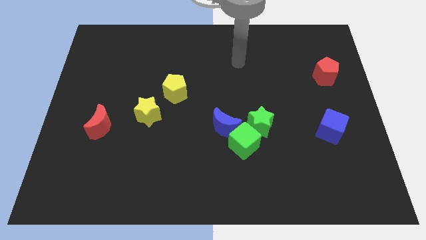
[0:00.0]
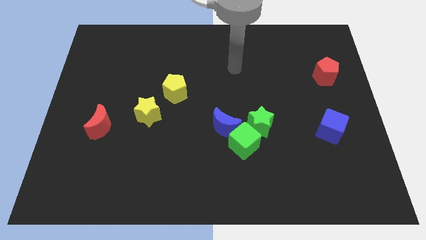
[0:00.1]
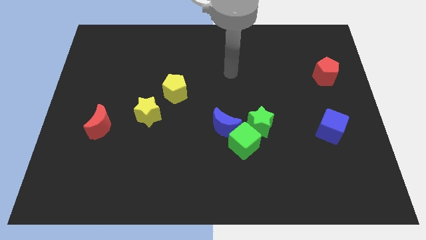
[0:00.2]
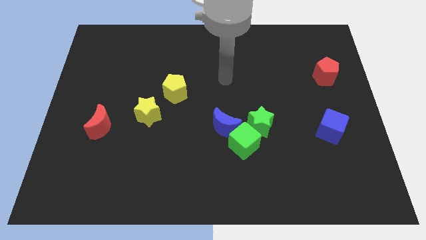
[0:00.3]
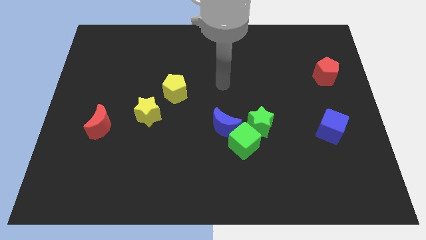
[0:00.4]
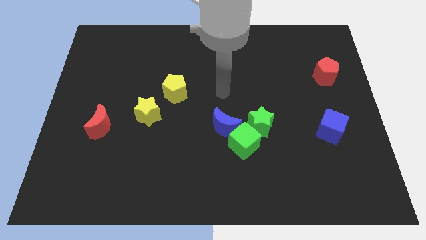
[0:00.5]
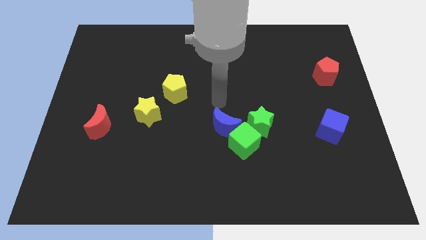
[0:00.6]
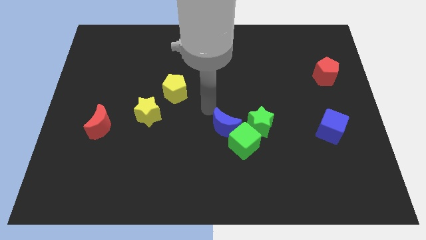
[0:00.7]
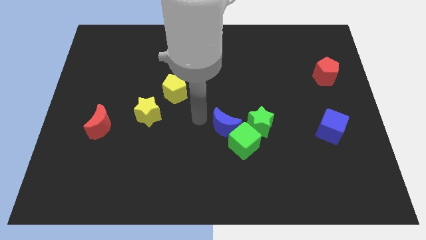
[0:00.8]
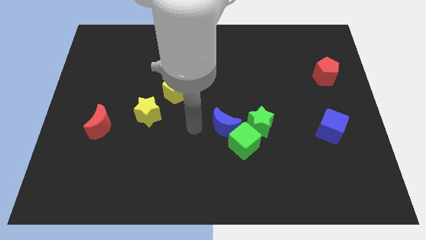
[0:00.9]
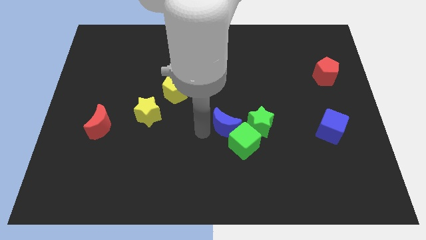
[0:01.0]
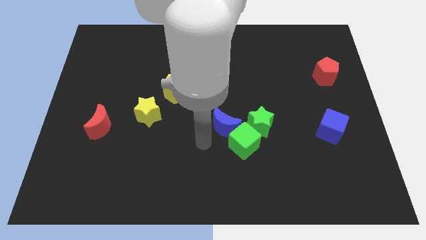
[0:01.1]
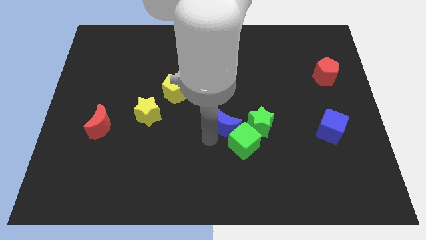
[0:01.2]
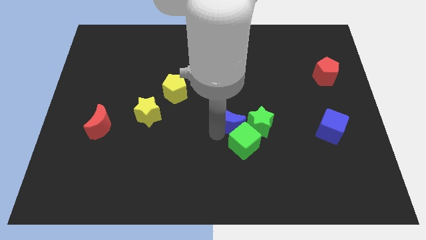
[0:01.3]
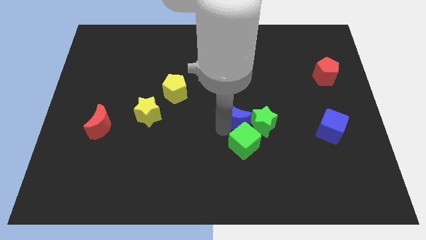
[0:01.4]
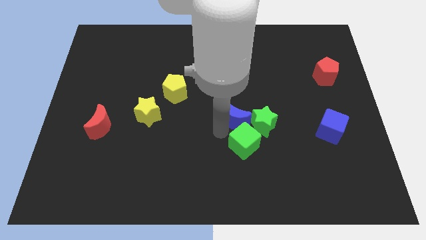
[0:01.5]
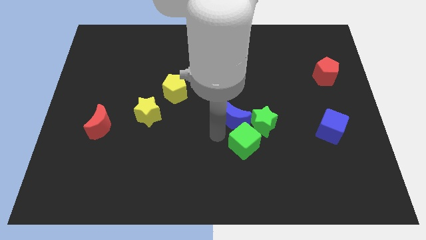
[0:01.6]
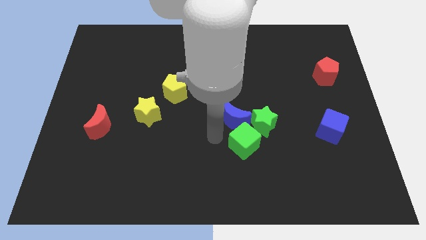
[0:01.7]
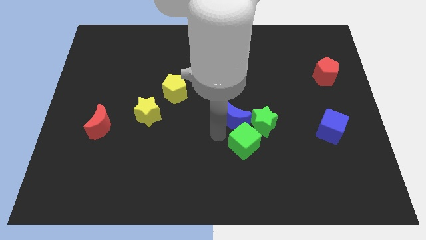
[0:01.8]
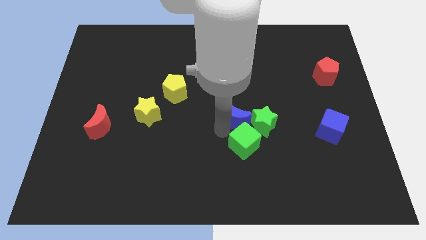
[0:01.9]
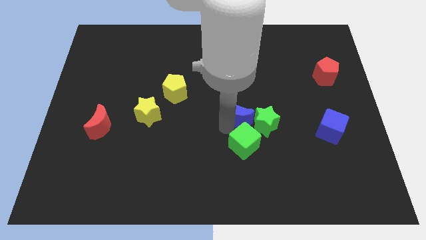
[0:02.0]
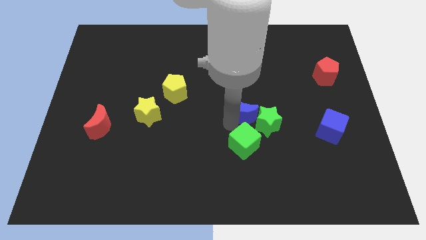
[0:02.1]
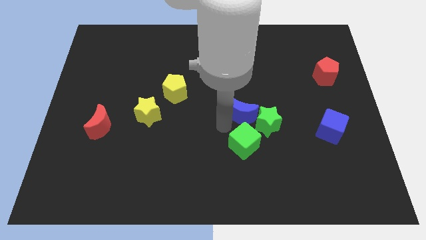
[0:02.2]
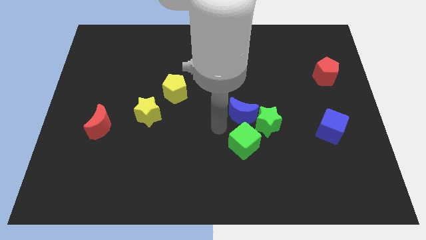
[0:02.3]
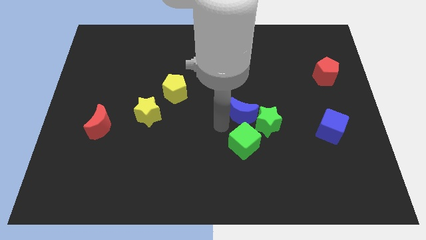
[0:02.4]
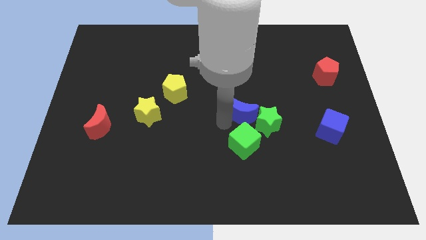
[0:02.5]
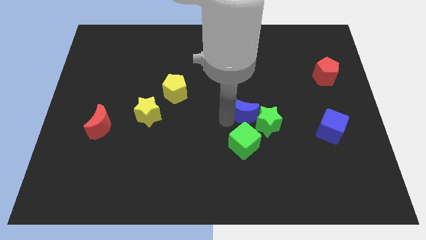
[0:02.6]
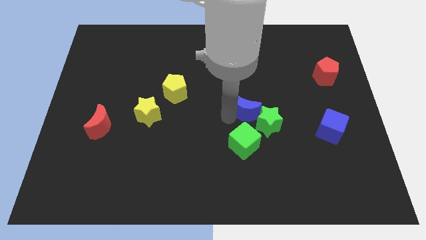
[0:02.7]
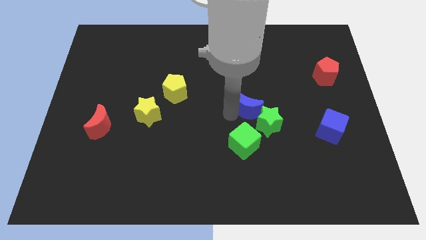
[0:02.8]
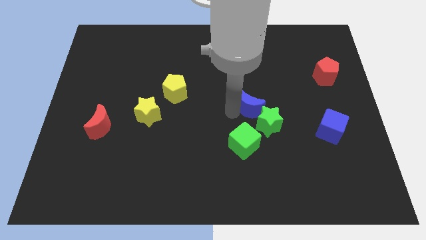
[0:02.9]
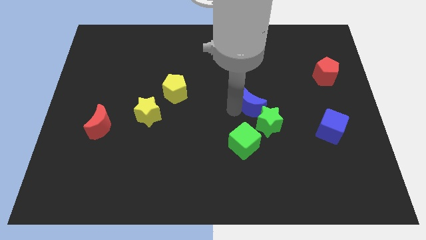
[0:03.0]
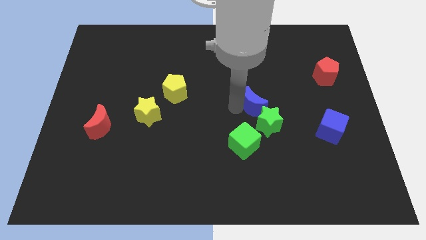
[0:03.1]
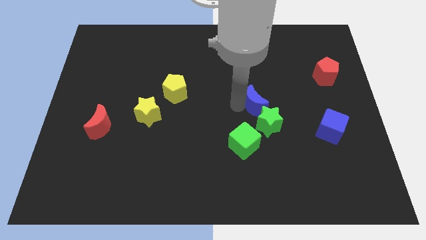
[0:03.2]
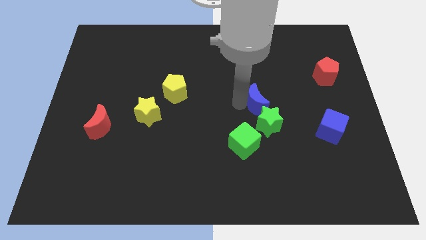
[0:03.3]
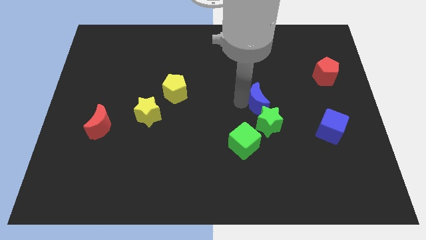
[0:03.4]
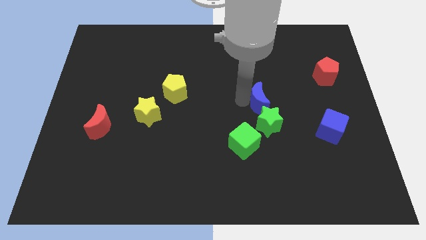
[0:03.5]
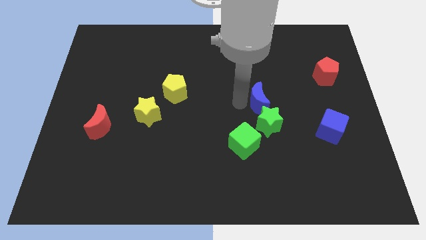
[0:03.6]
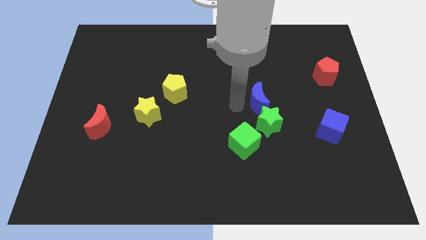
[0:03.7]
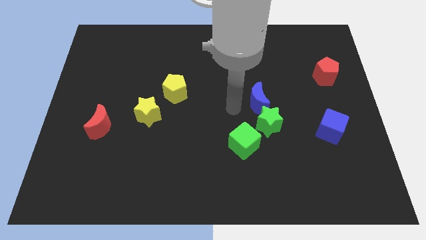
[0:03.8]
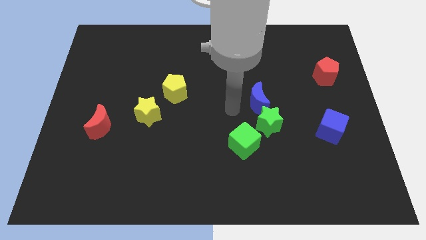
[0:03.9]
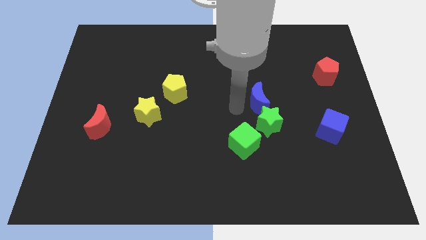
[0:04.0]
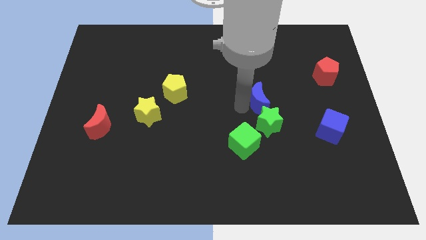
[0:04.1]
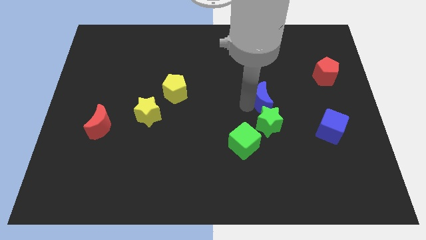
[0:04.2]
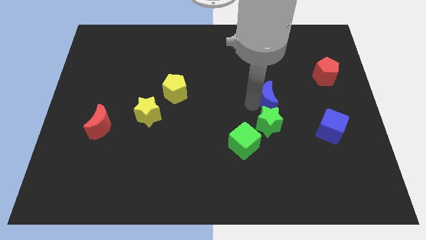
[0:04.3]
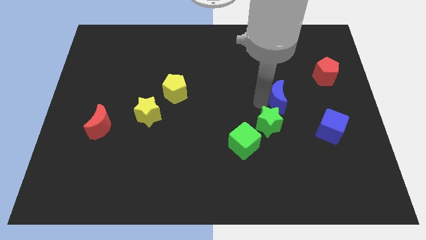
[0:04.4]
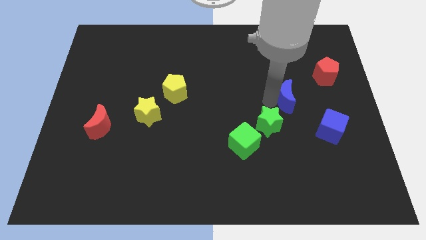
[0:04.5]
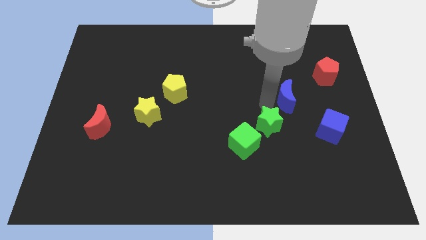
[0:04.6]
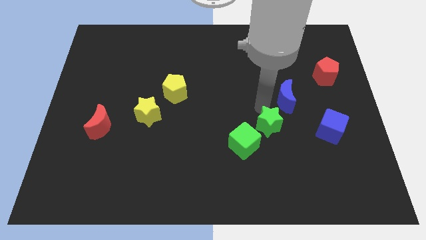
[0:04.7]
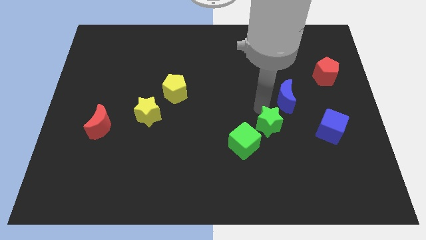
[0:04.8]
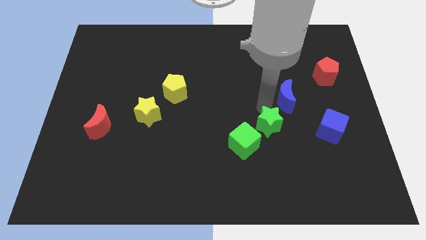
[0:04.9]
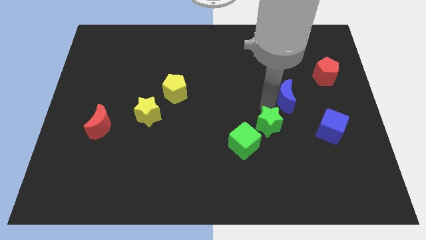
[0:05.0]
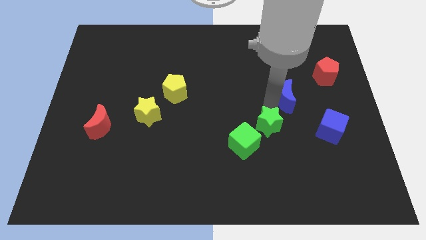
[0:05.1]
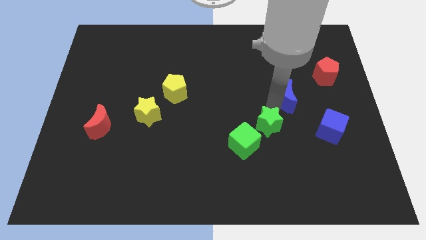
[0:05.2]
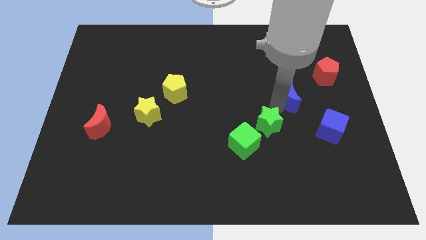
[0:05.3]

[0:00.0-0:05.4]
move the blue moon diagonally down and to the left of the red pentagon

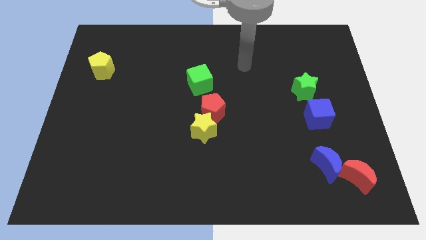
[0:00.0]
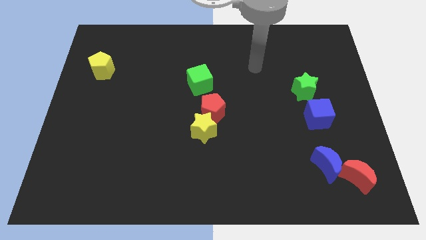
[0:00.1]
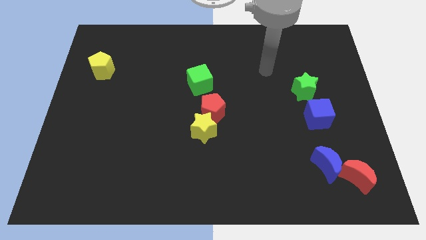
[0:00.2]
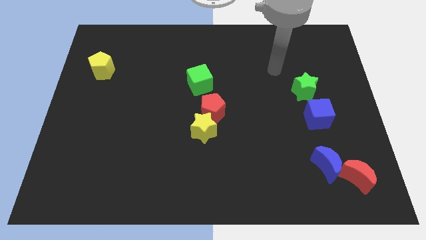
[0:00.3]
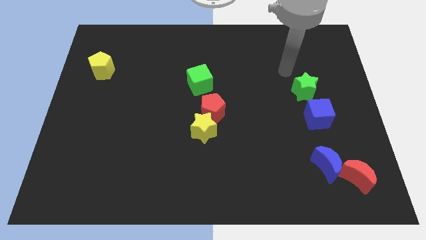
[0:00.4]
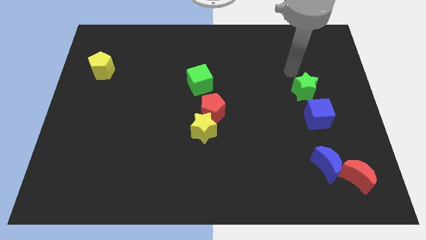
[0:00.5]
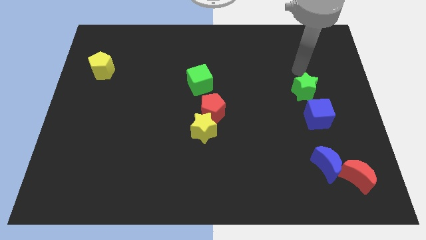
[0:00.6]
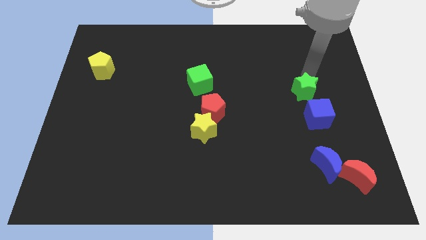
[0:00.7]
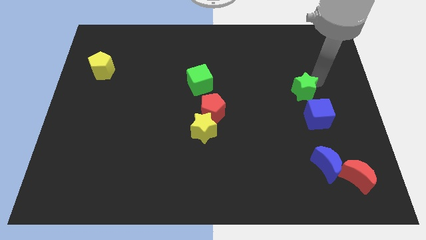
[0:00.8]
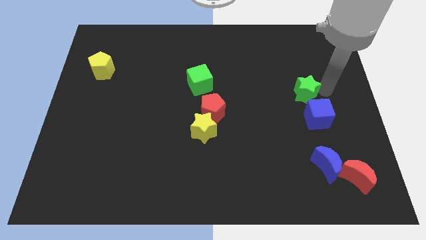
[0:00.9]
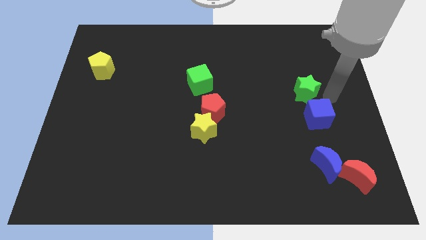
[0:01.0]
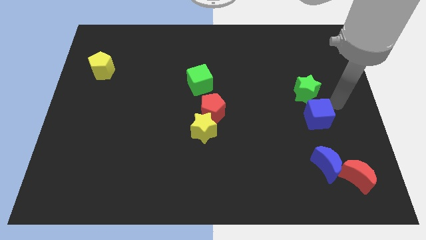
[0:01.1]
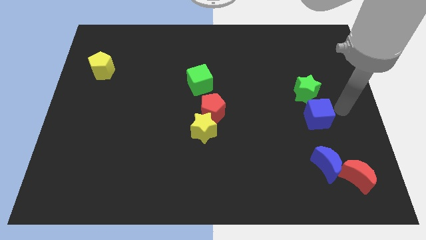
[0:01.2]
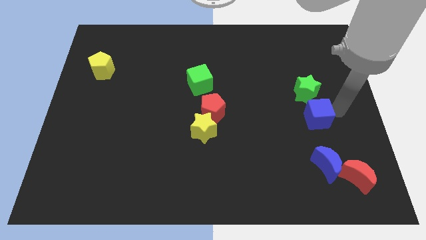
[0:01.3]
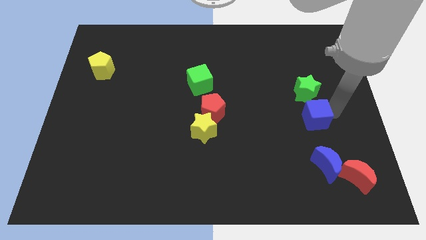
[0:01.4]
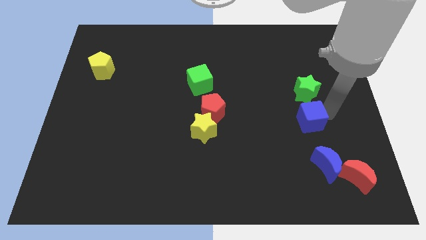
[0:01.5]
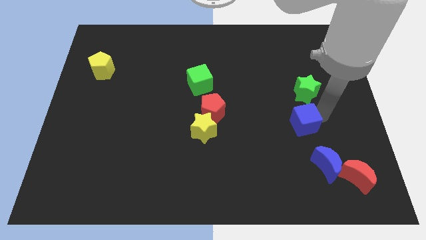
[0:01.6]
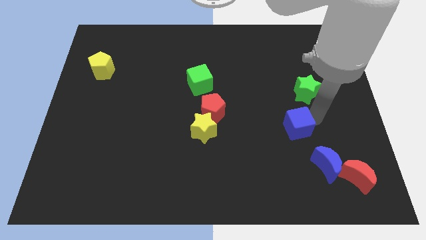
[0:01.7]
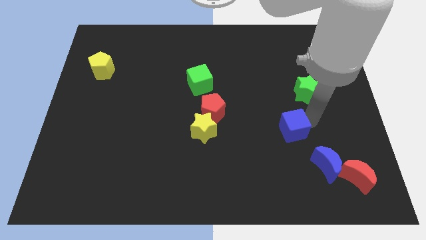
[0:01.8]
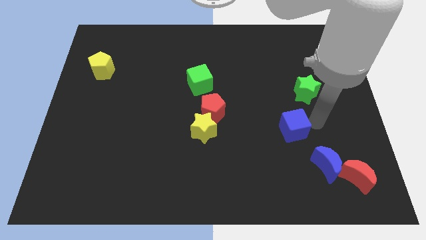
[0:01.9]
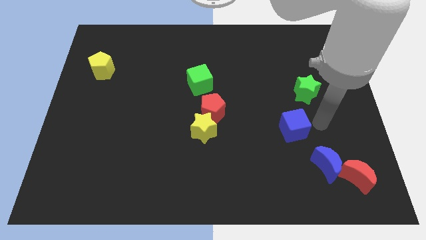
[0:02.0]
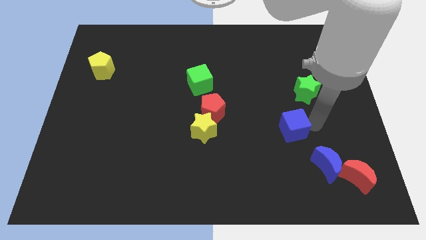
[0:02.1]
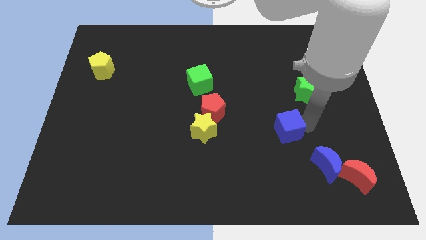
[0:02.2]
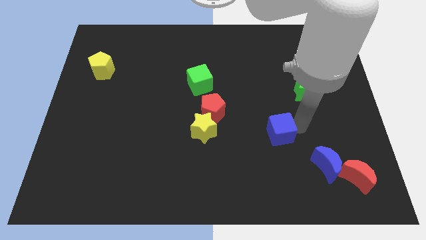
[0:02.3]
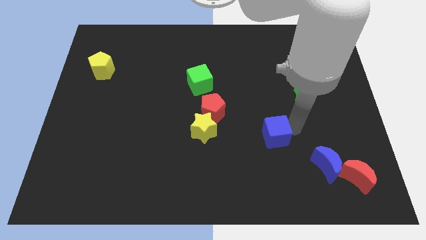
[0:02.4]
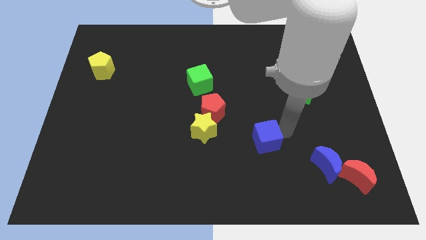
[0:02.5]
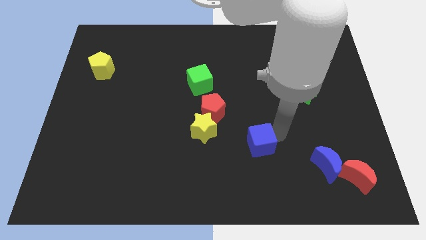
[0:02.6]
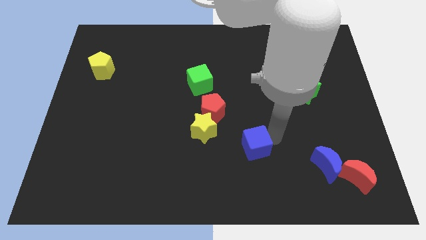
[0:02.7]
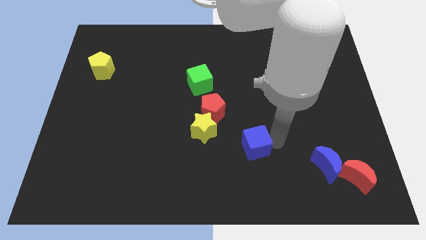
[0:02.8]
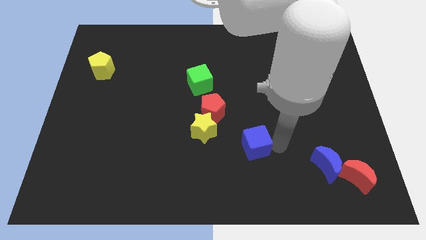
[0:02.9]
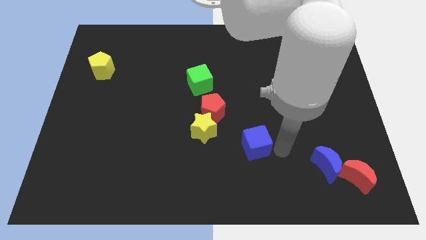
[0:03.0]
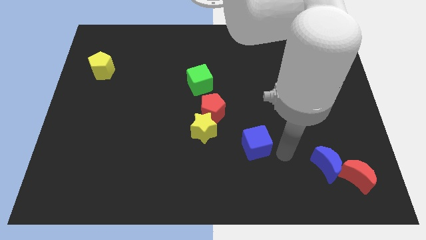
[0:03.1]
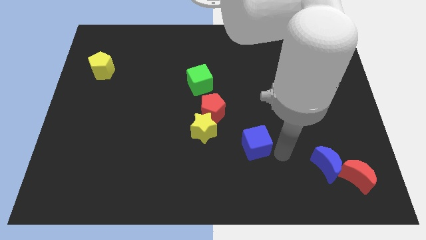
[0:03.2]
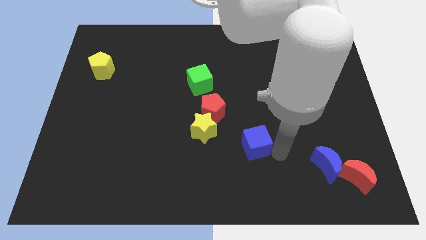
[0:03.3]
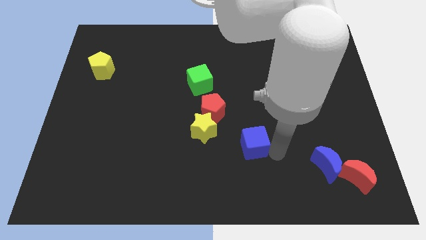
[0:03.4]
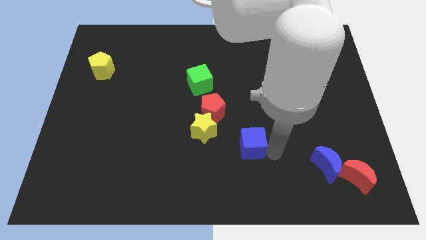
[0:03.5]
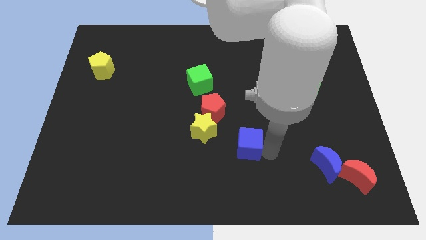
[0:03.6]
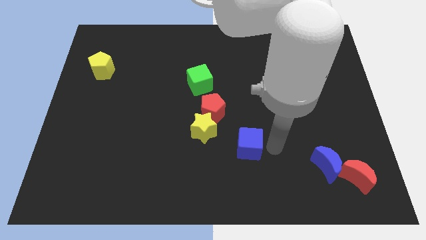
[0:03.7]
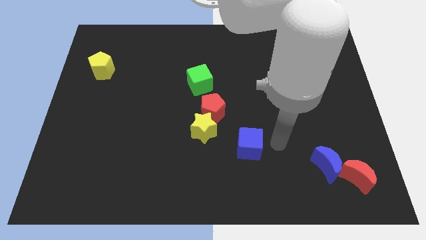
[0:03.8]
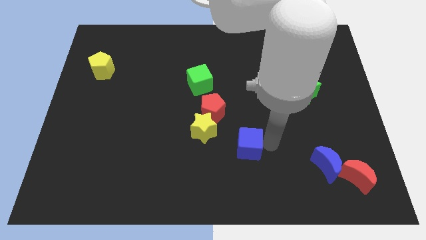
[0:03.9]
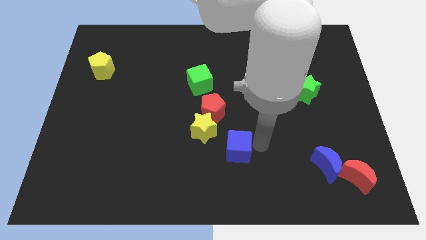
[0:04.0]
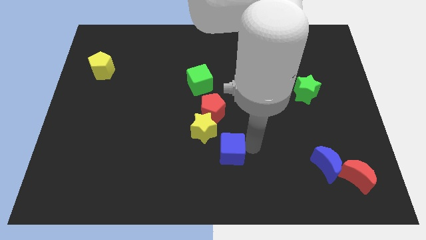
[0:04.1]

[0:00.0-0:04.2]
slide the blue cube to the bottom side of the red pentagon
